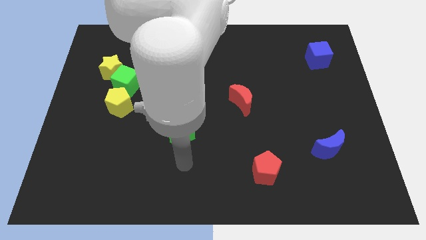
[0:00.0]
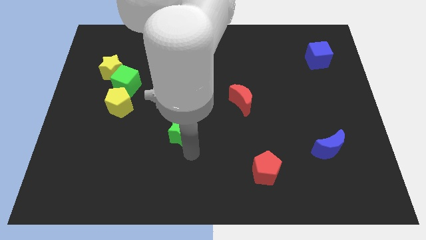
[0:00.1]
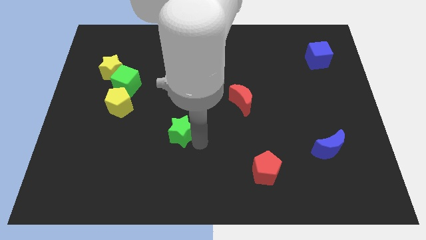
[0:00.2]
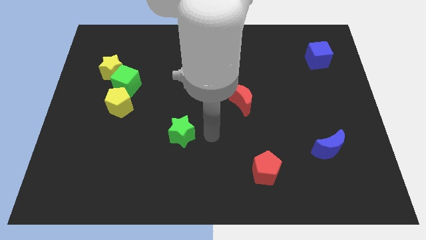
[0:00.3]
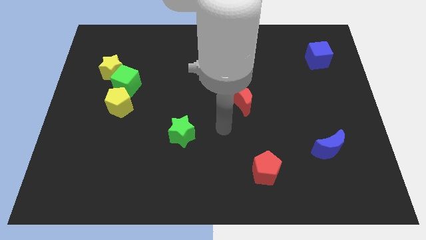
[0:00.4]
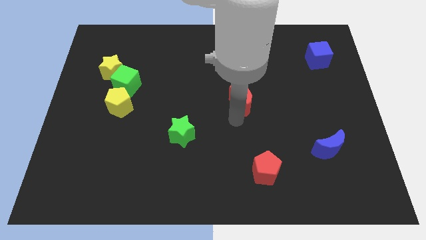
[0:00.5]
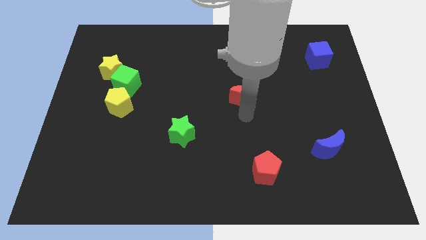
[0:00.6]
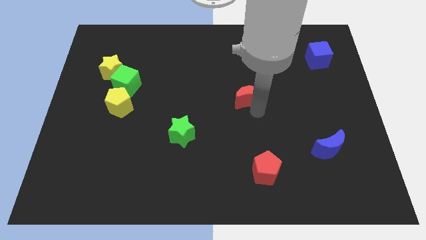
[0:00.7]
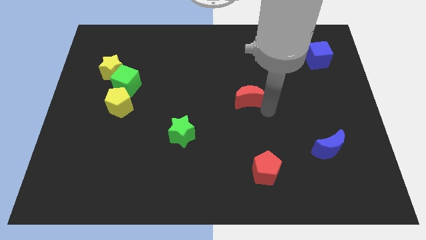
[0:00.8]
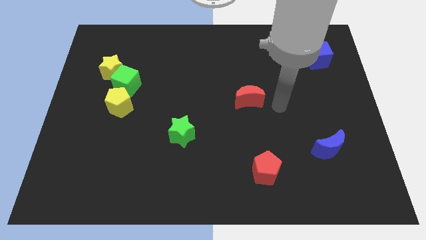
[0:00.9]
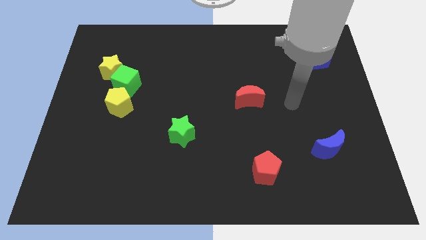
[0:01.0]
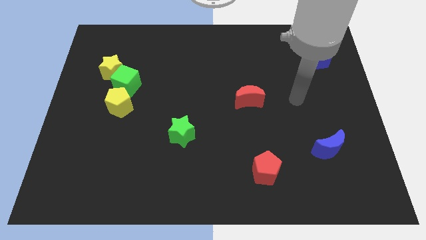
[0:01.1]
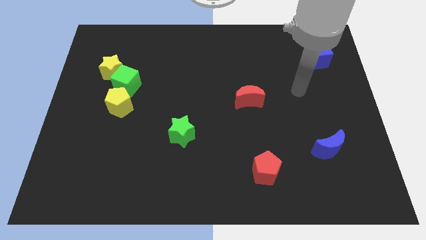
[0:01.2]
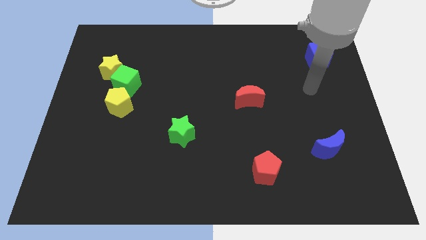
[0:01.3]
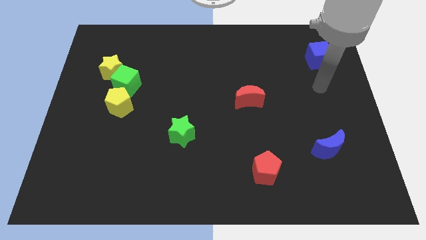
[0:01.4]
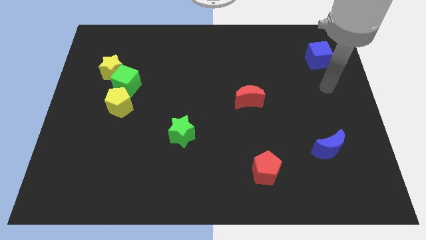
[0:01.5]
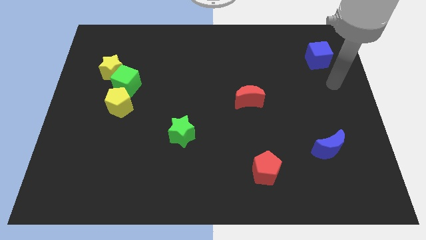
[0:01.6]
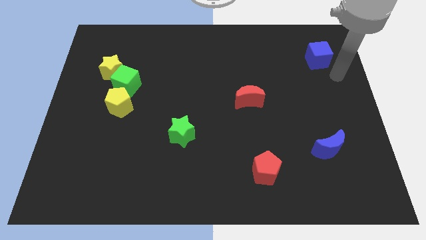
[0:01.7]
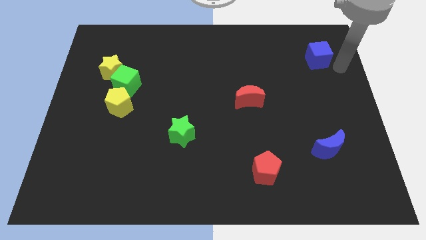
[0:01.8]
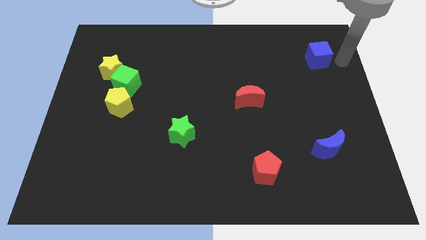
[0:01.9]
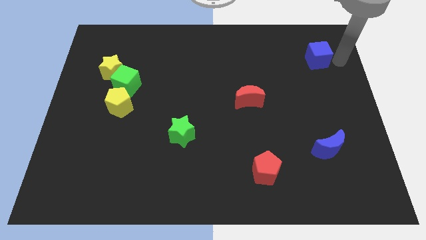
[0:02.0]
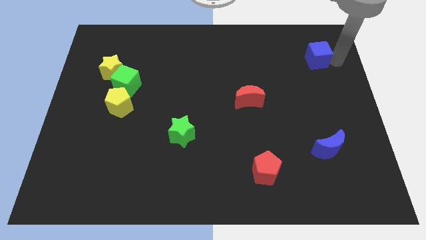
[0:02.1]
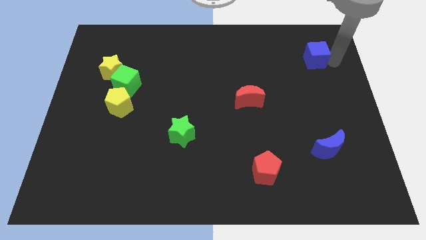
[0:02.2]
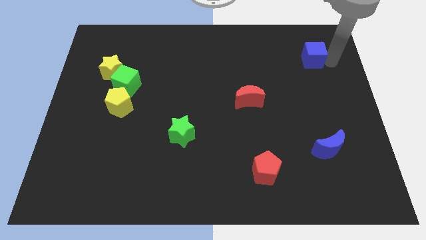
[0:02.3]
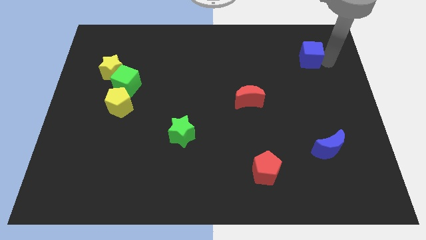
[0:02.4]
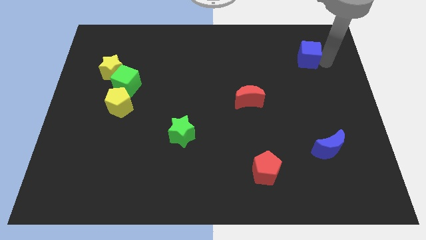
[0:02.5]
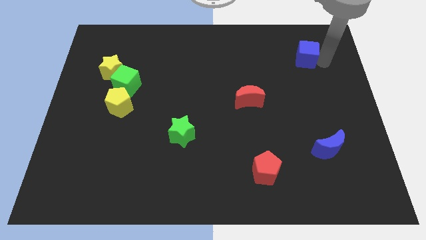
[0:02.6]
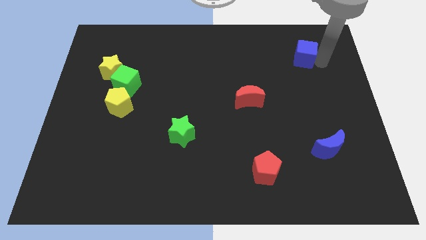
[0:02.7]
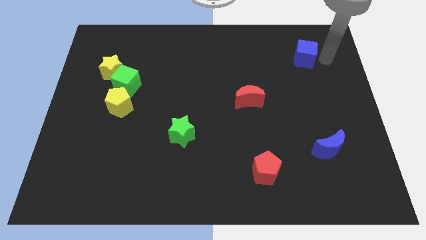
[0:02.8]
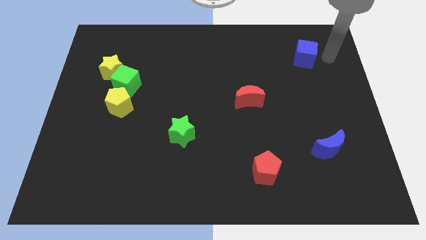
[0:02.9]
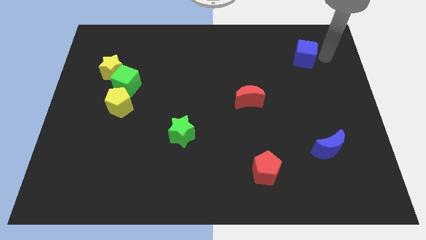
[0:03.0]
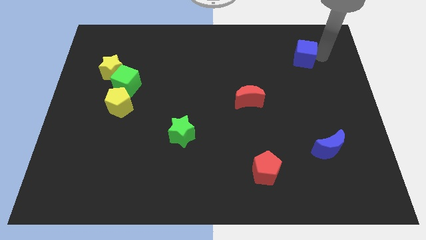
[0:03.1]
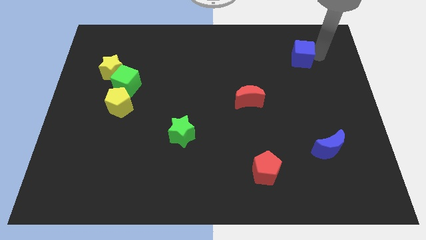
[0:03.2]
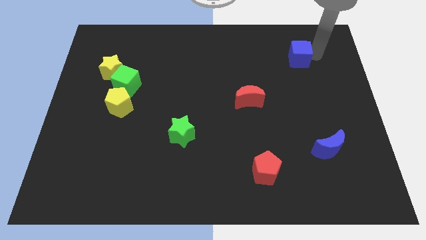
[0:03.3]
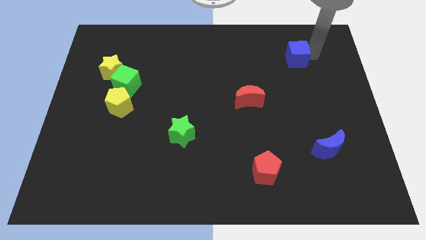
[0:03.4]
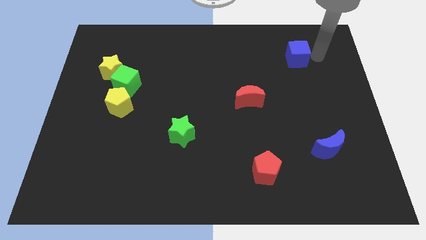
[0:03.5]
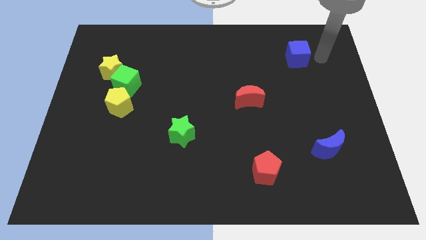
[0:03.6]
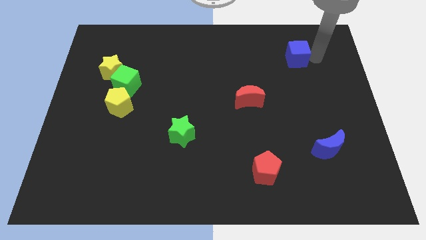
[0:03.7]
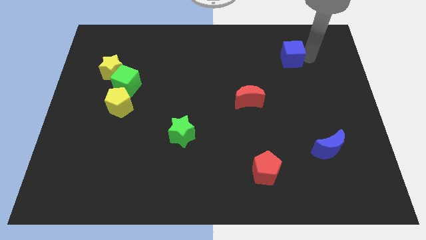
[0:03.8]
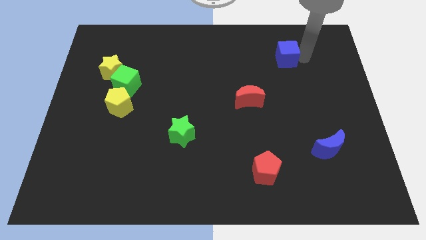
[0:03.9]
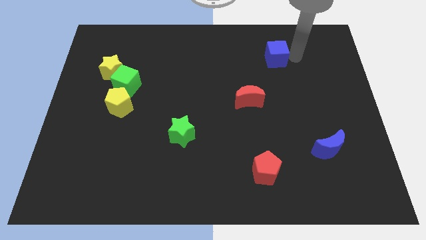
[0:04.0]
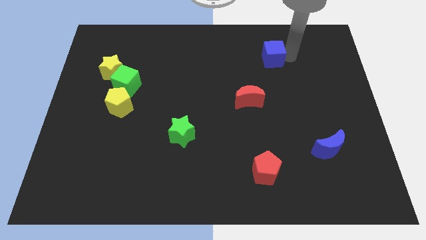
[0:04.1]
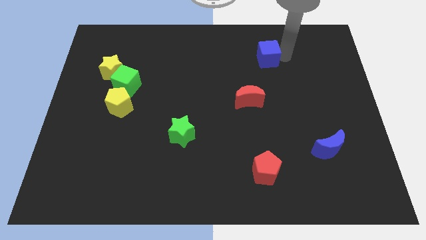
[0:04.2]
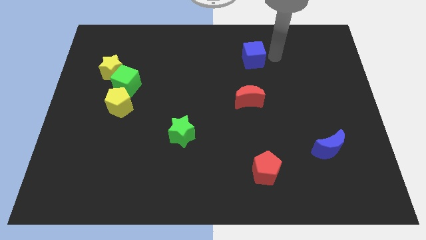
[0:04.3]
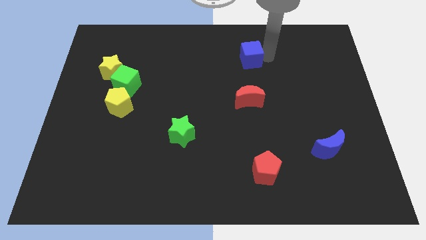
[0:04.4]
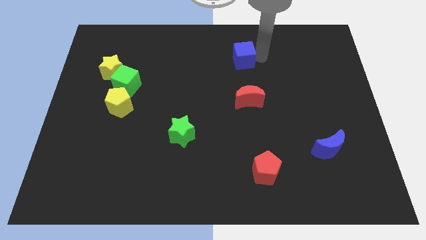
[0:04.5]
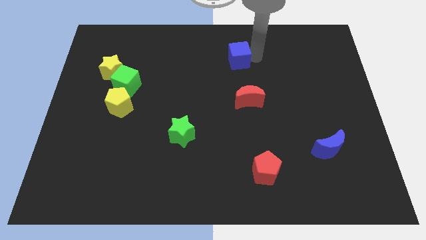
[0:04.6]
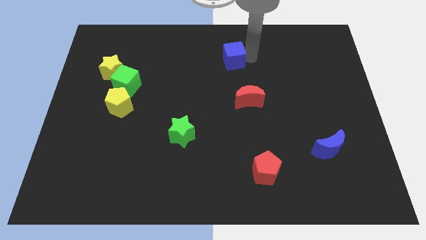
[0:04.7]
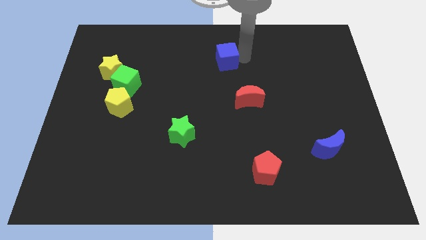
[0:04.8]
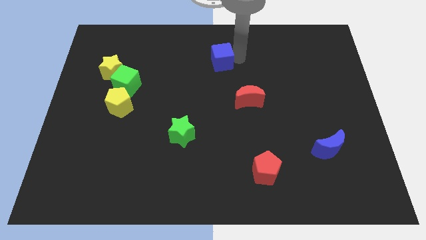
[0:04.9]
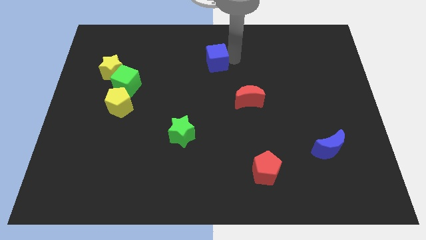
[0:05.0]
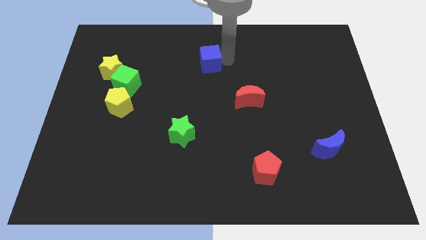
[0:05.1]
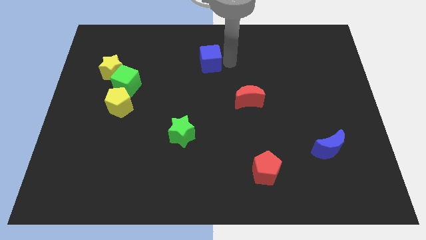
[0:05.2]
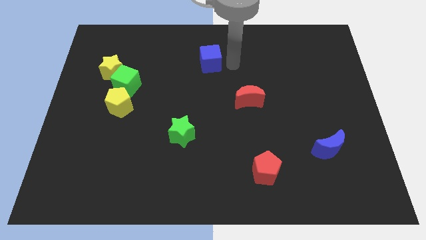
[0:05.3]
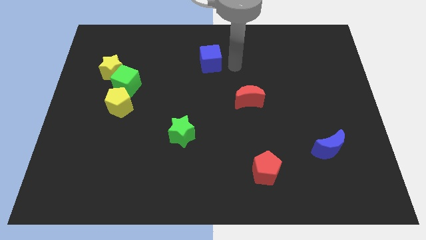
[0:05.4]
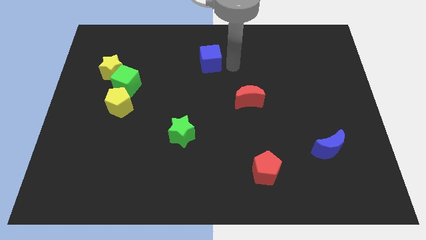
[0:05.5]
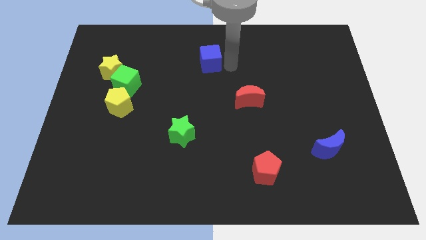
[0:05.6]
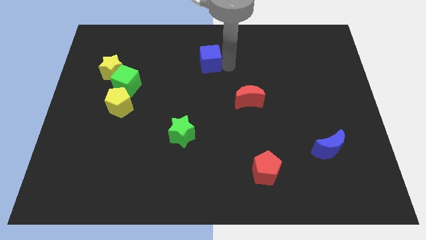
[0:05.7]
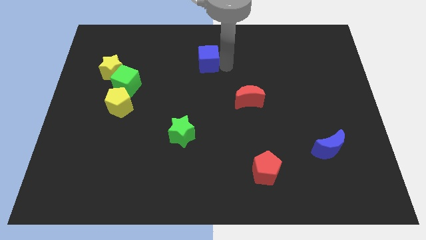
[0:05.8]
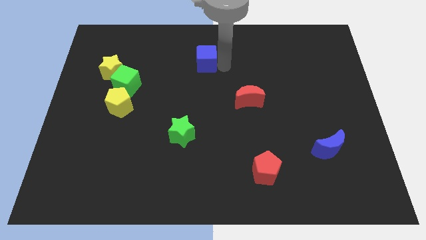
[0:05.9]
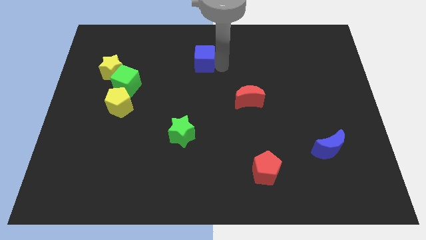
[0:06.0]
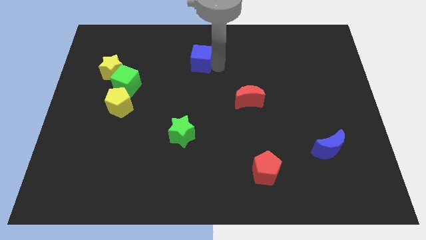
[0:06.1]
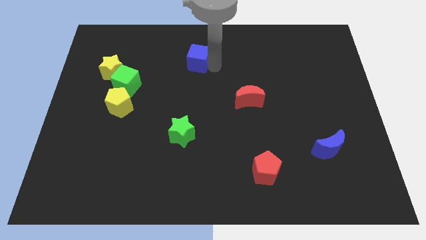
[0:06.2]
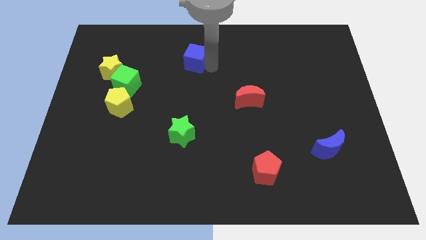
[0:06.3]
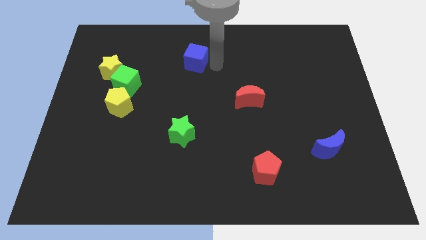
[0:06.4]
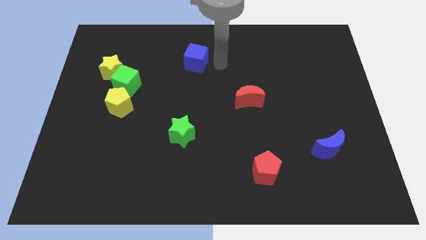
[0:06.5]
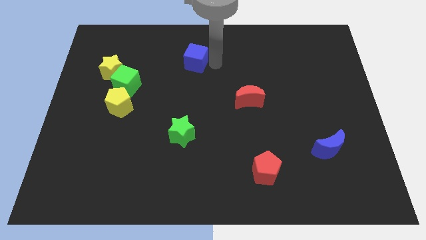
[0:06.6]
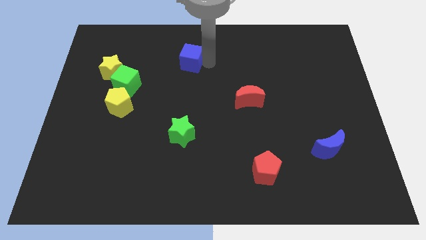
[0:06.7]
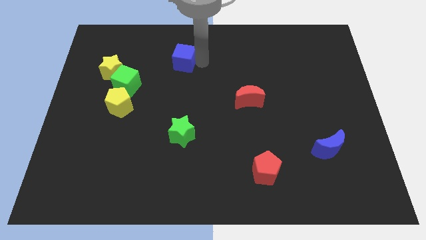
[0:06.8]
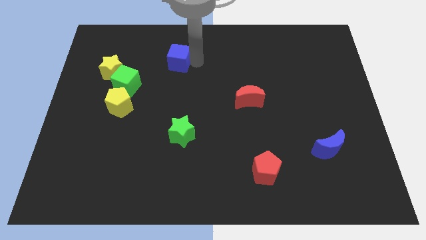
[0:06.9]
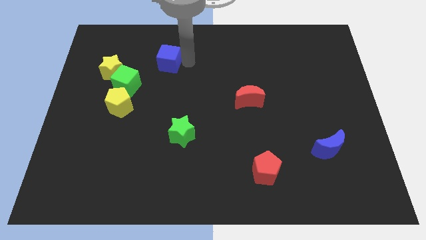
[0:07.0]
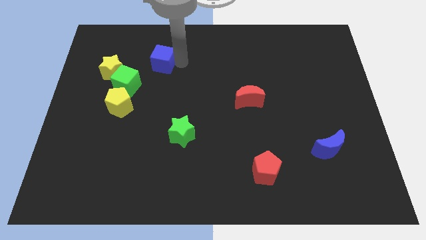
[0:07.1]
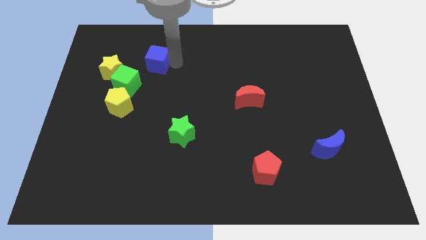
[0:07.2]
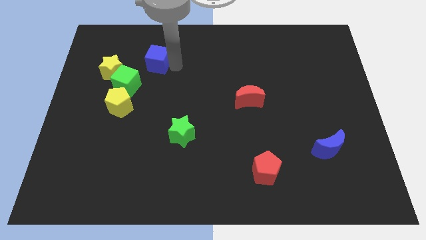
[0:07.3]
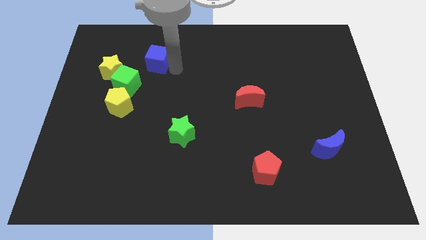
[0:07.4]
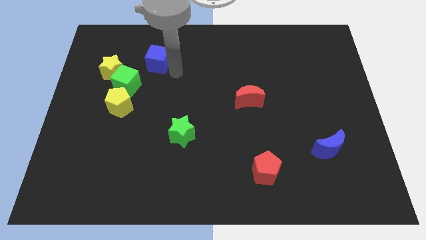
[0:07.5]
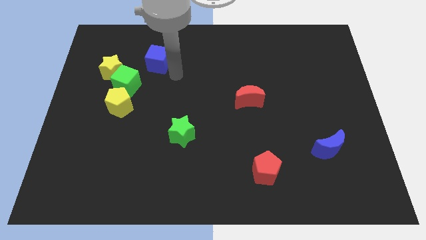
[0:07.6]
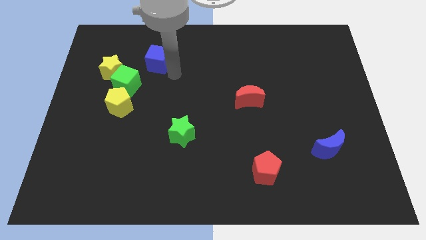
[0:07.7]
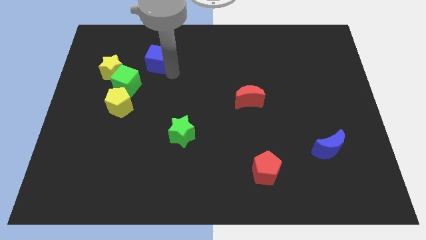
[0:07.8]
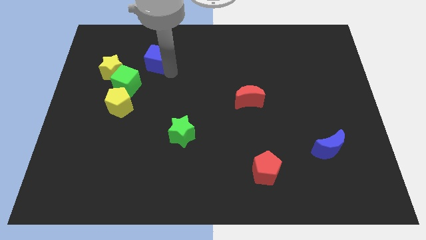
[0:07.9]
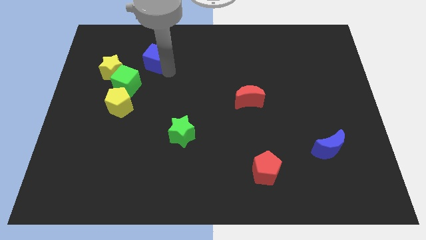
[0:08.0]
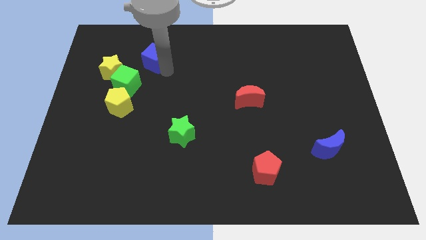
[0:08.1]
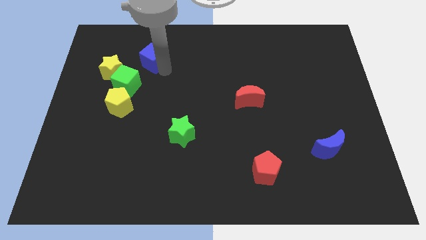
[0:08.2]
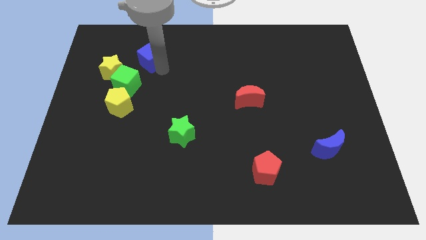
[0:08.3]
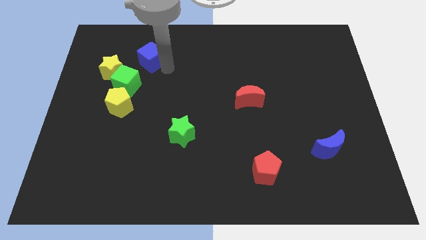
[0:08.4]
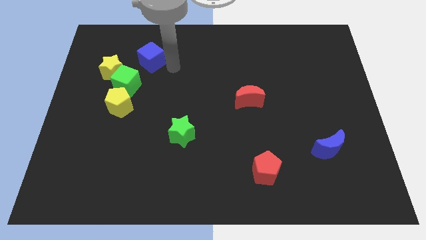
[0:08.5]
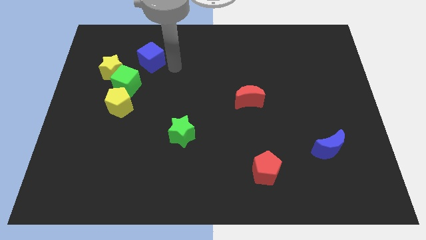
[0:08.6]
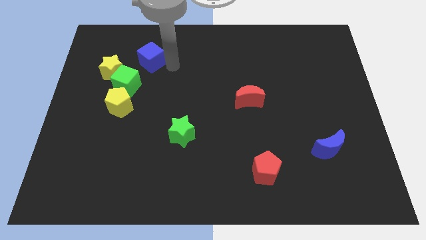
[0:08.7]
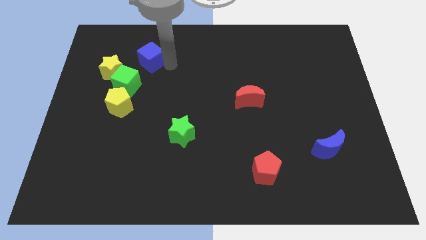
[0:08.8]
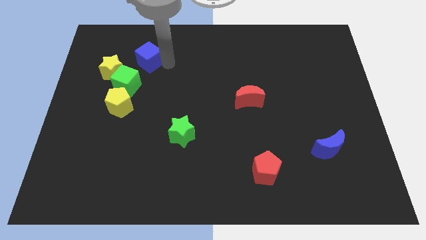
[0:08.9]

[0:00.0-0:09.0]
slide the blue cube to the top of the green cube
